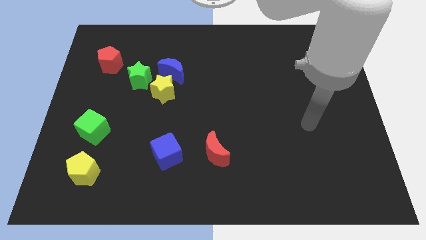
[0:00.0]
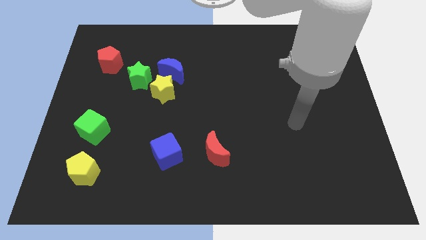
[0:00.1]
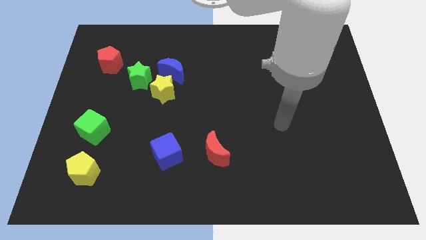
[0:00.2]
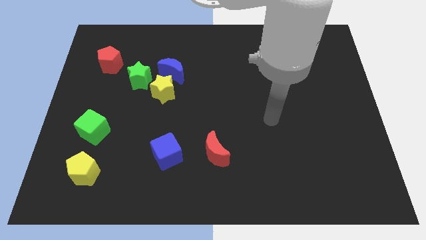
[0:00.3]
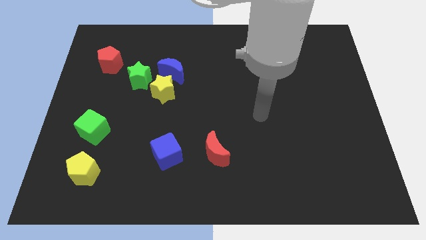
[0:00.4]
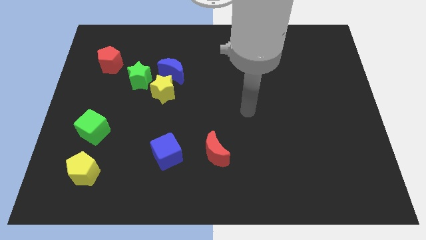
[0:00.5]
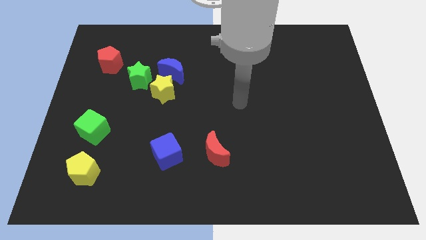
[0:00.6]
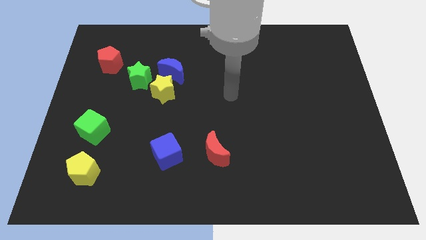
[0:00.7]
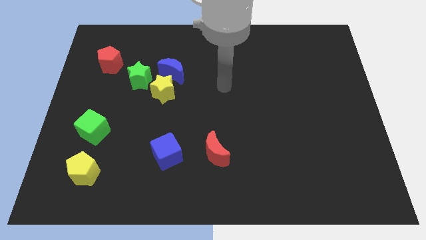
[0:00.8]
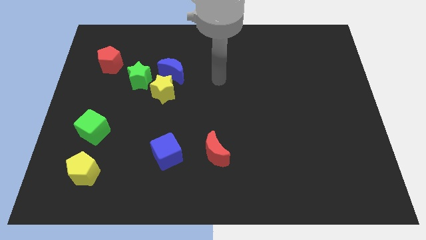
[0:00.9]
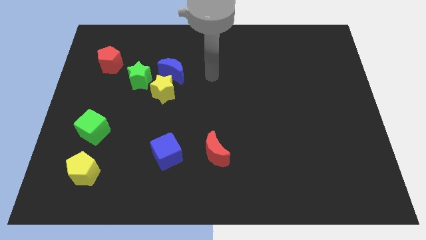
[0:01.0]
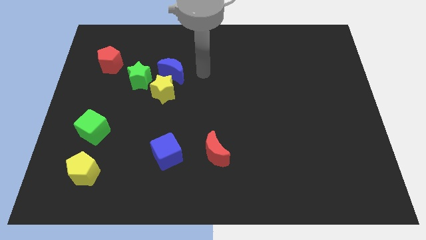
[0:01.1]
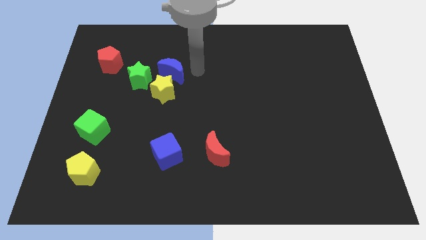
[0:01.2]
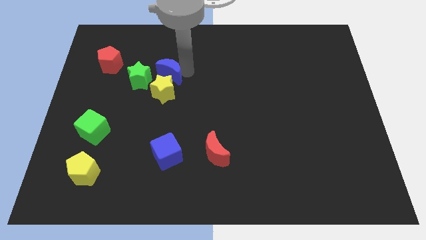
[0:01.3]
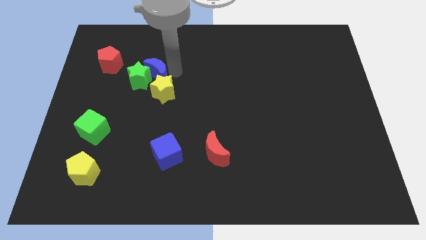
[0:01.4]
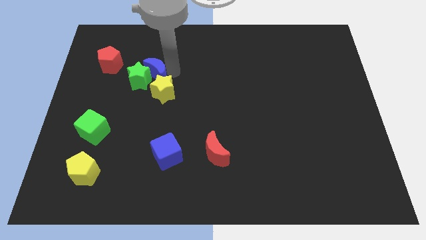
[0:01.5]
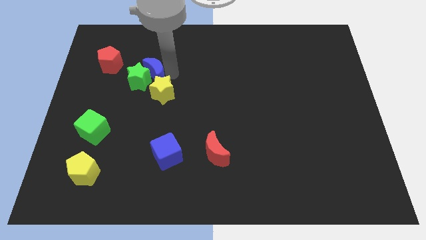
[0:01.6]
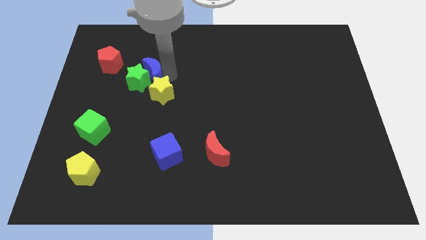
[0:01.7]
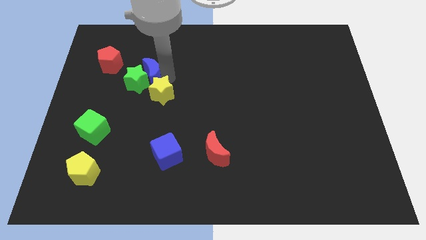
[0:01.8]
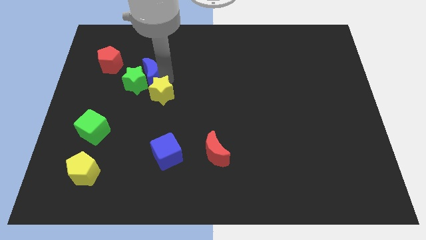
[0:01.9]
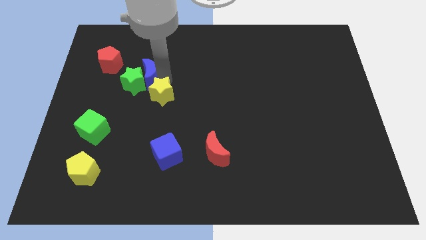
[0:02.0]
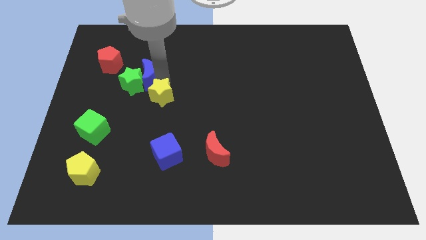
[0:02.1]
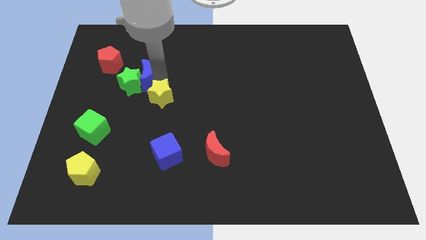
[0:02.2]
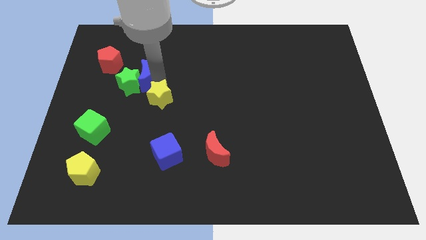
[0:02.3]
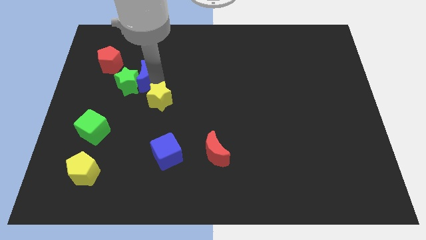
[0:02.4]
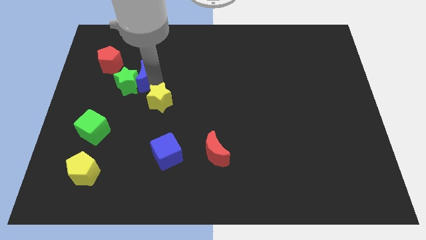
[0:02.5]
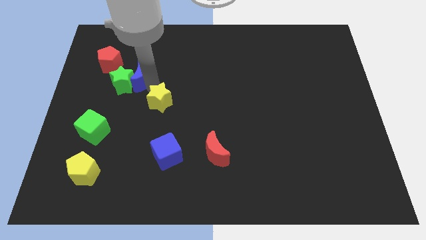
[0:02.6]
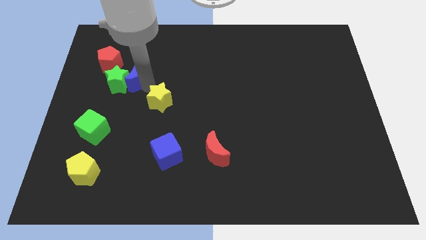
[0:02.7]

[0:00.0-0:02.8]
pull the yellow star apart from the blue moon and green star

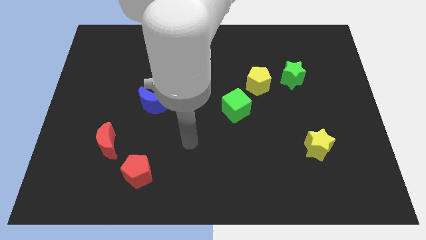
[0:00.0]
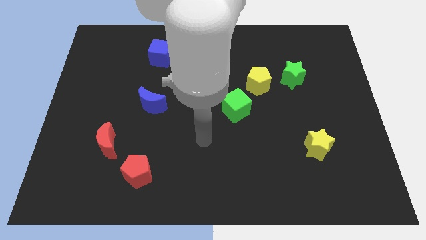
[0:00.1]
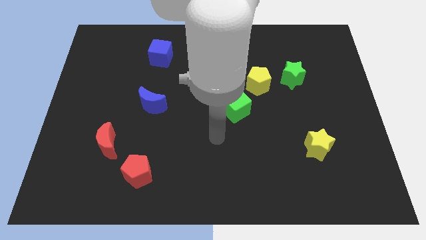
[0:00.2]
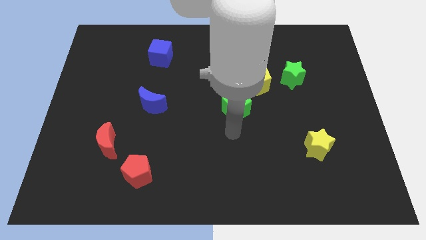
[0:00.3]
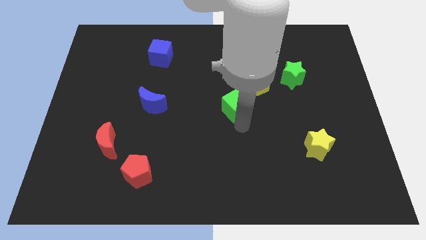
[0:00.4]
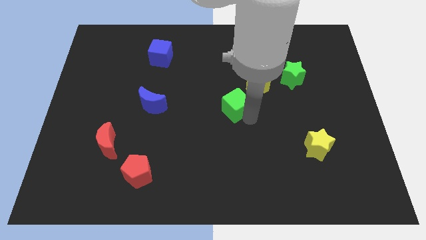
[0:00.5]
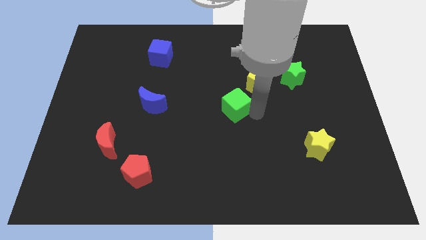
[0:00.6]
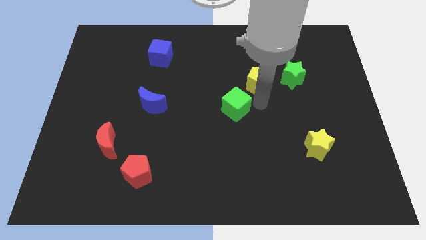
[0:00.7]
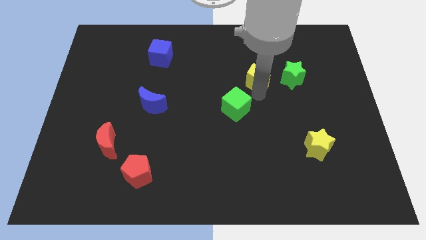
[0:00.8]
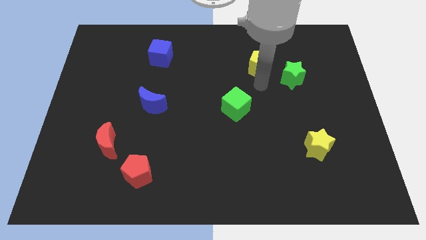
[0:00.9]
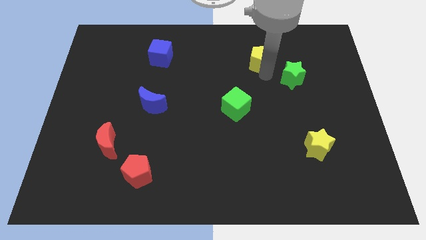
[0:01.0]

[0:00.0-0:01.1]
move the green star away from the yellow pentagon

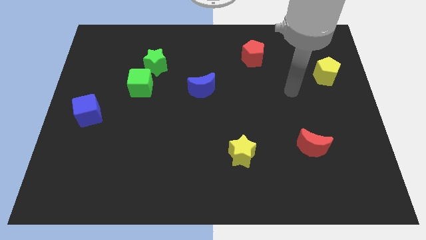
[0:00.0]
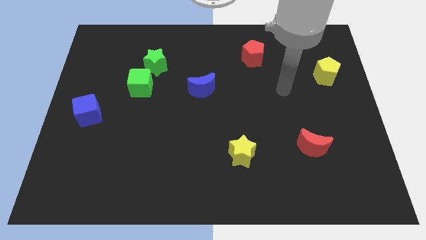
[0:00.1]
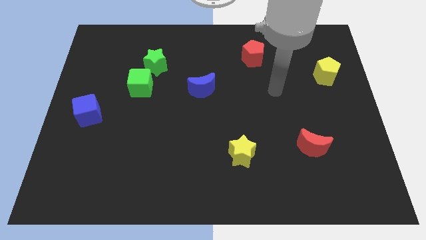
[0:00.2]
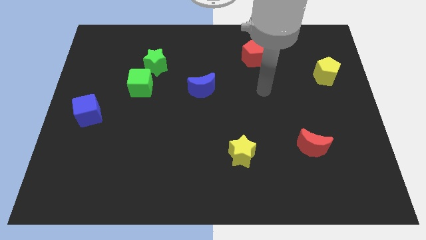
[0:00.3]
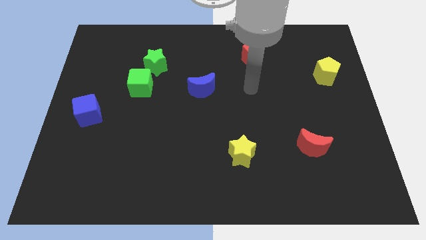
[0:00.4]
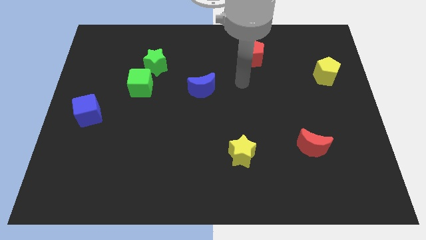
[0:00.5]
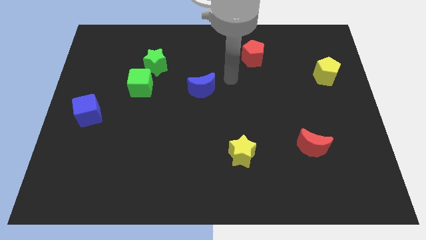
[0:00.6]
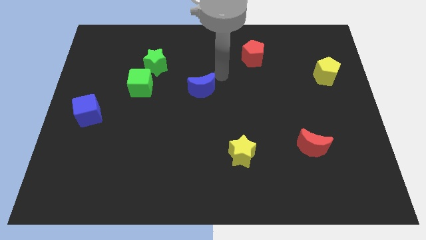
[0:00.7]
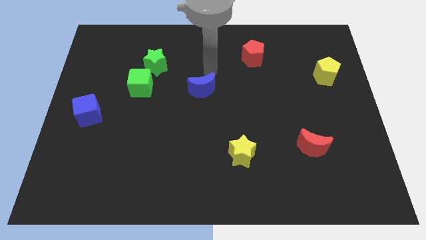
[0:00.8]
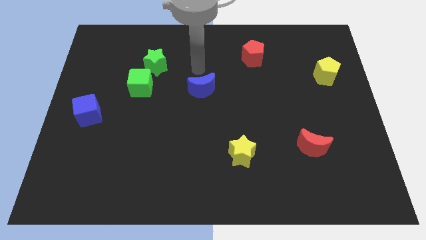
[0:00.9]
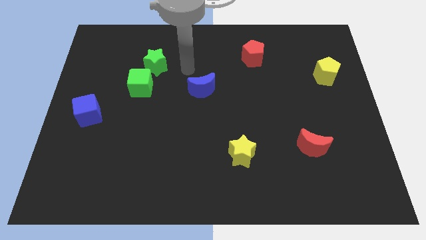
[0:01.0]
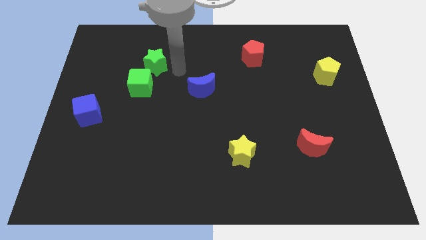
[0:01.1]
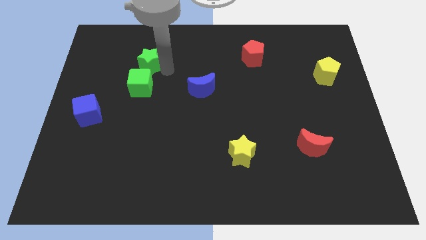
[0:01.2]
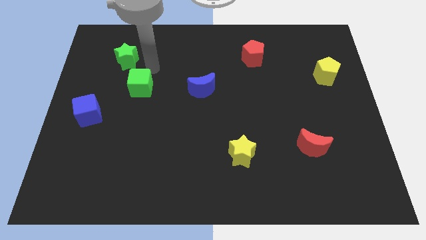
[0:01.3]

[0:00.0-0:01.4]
pull the green cube apart from the green star

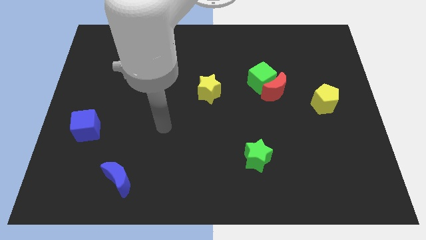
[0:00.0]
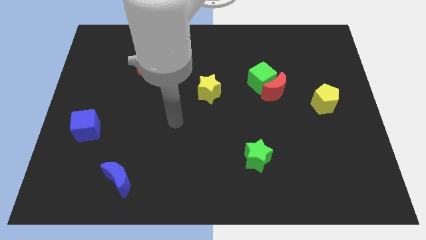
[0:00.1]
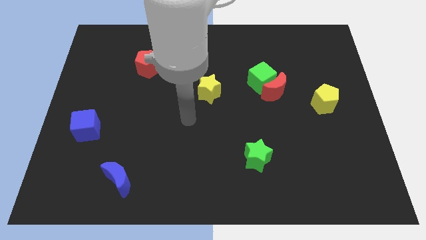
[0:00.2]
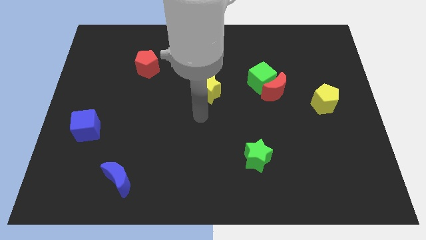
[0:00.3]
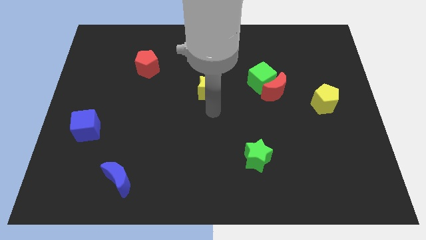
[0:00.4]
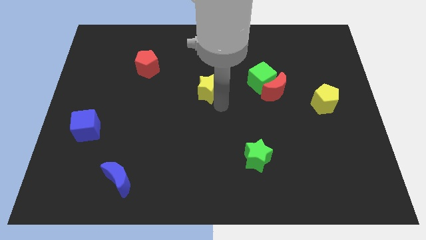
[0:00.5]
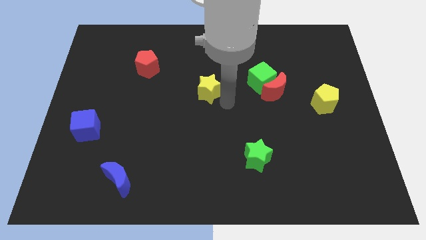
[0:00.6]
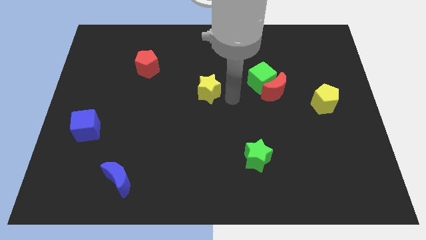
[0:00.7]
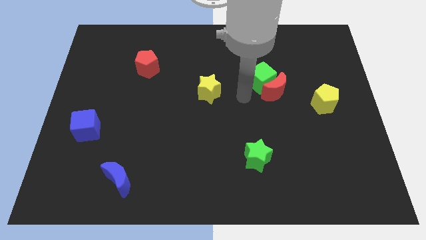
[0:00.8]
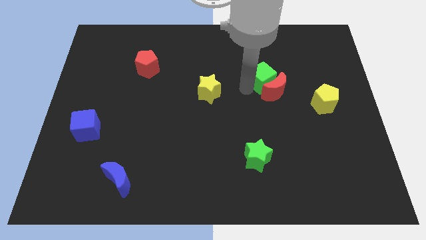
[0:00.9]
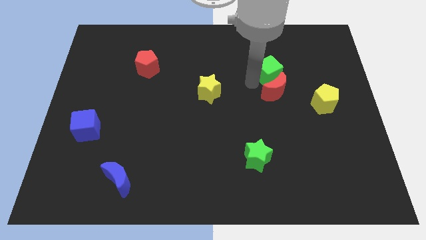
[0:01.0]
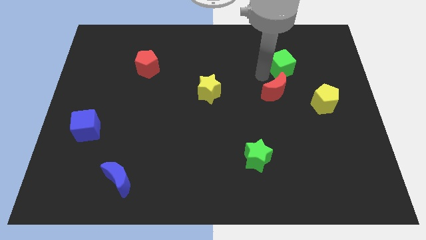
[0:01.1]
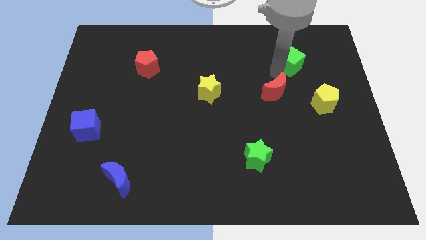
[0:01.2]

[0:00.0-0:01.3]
move the red moon away from the green cube

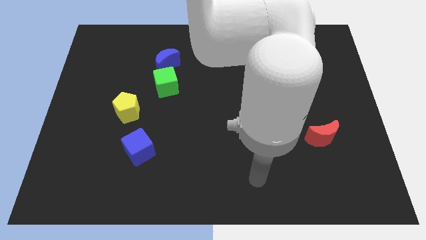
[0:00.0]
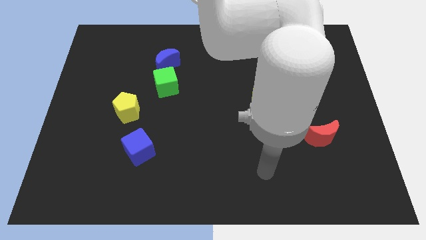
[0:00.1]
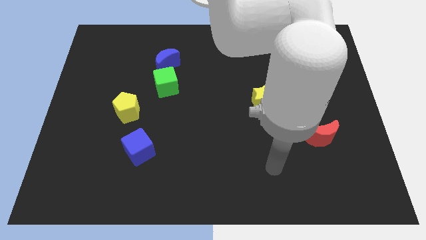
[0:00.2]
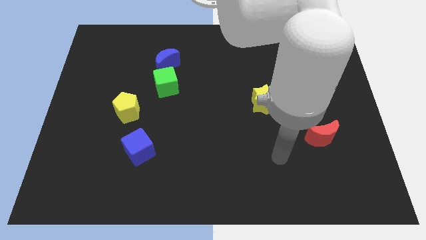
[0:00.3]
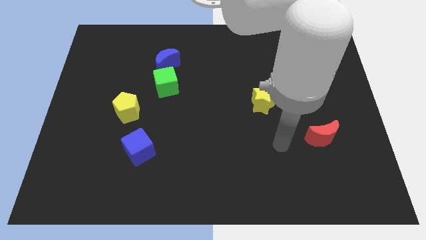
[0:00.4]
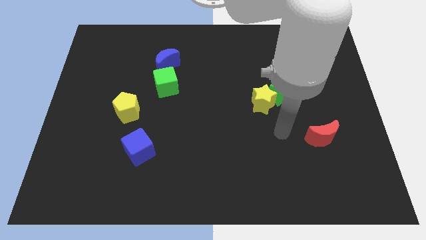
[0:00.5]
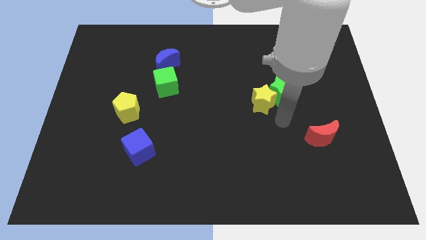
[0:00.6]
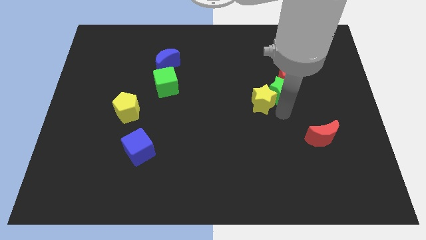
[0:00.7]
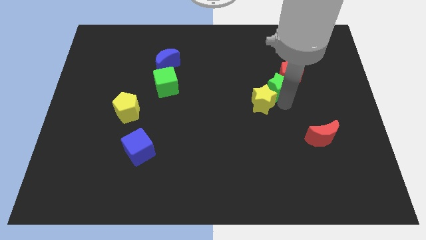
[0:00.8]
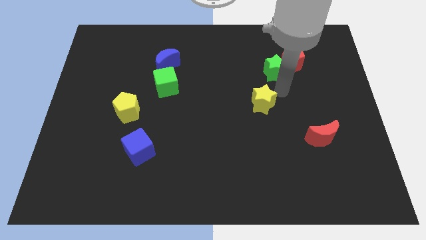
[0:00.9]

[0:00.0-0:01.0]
separate the yellow star from the green star

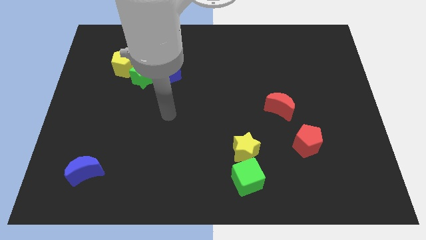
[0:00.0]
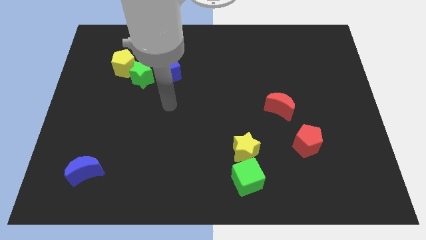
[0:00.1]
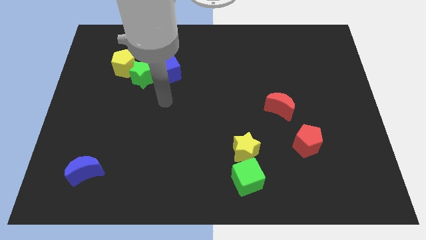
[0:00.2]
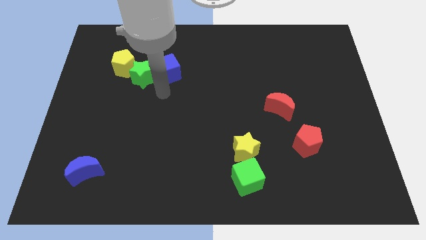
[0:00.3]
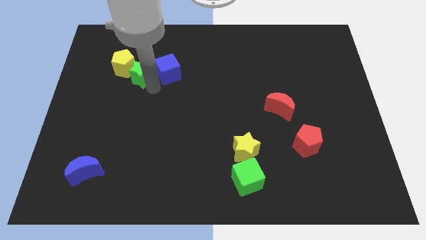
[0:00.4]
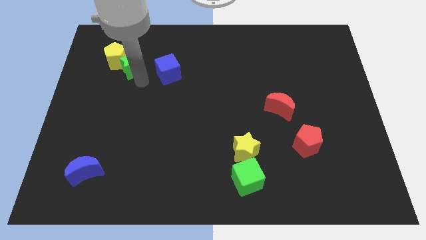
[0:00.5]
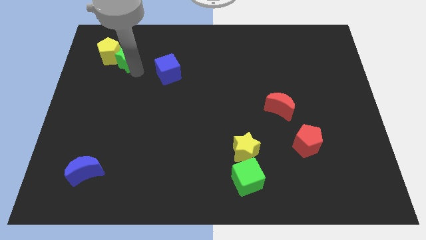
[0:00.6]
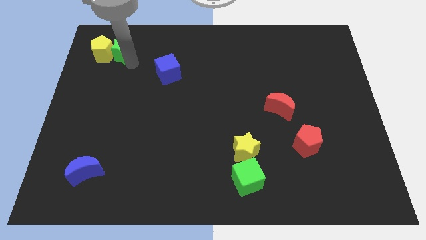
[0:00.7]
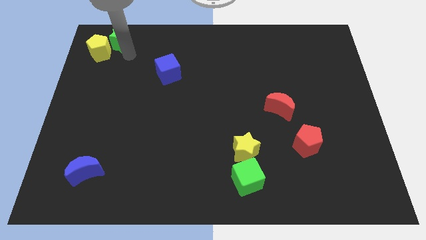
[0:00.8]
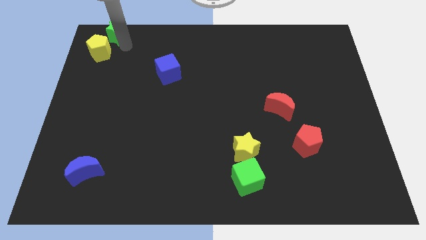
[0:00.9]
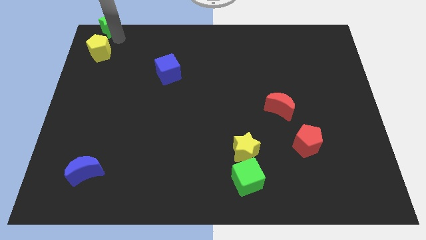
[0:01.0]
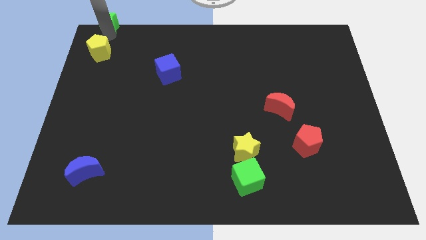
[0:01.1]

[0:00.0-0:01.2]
move the yellow pentagon away from the green star

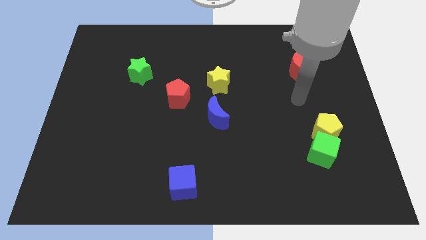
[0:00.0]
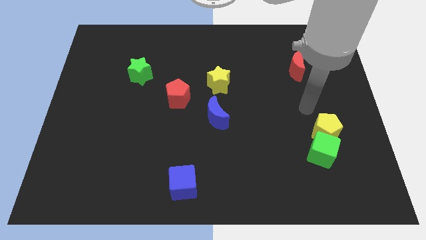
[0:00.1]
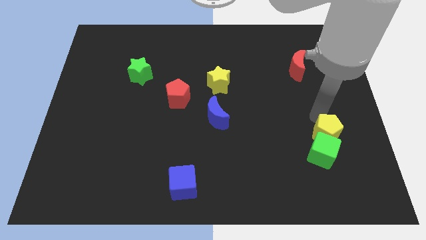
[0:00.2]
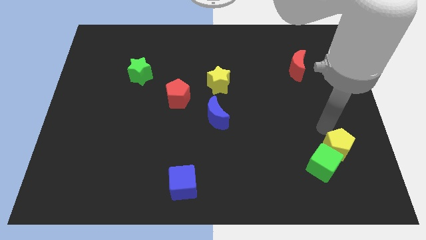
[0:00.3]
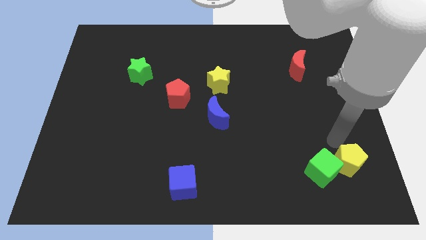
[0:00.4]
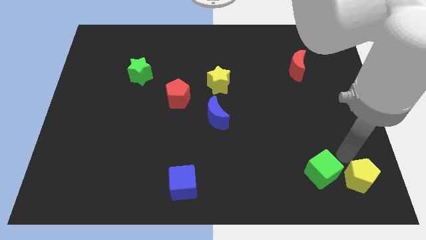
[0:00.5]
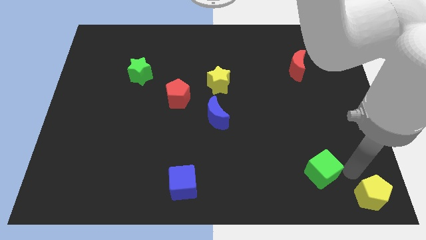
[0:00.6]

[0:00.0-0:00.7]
pull the green cube apart from the yellow pentagon
